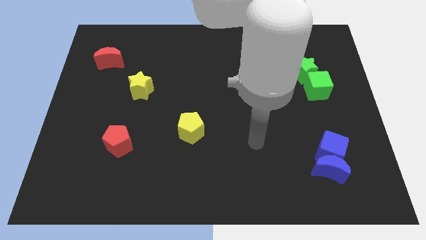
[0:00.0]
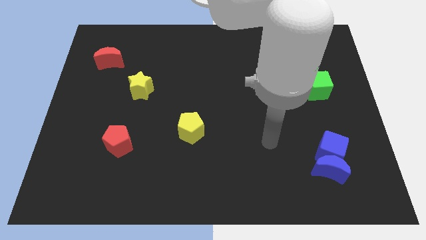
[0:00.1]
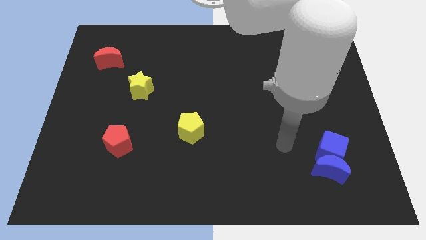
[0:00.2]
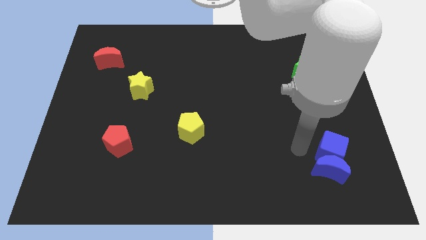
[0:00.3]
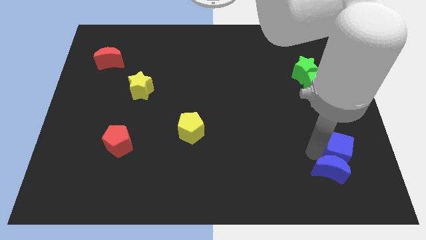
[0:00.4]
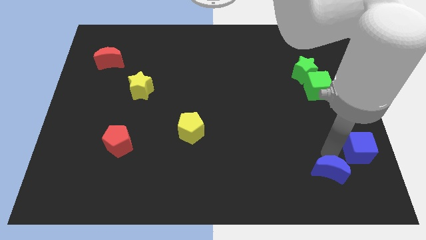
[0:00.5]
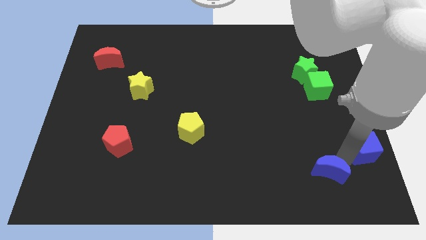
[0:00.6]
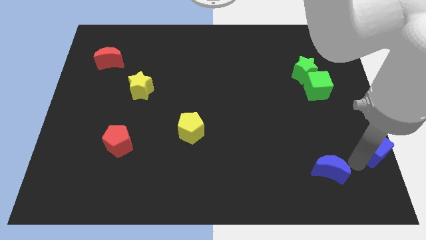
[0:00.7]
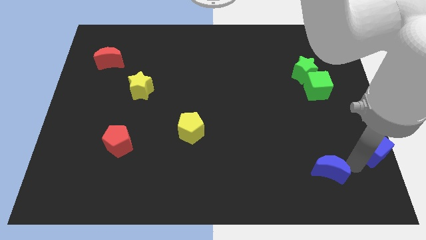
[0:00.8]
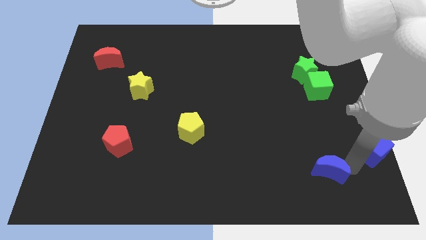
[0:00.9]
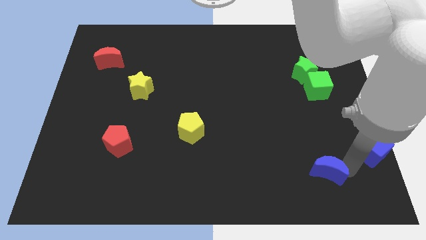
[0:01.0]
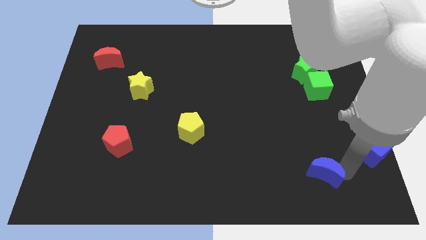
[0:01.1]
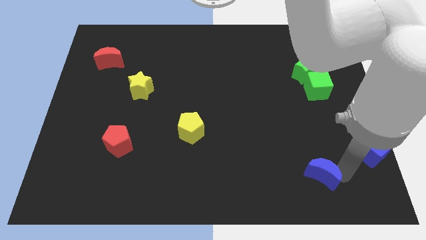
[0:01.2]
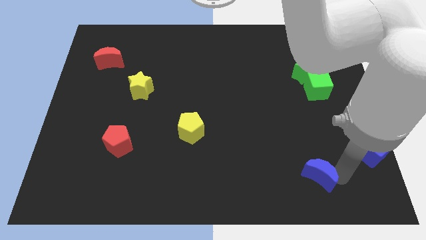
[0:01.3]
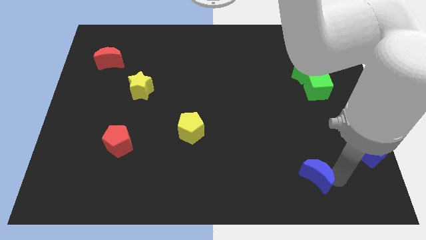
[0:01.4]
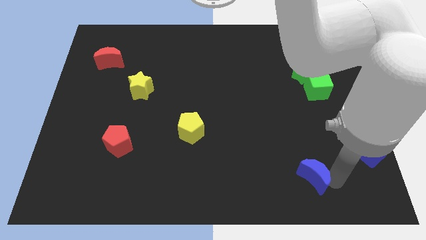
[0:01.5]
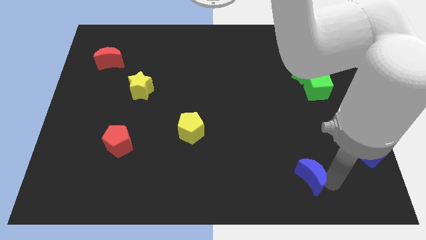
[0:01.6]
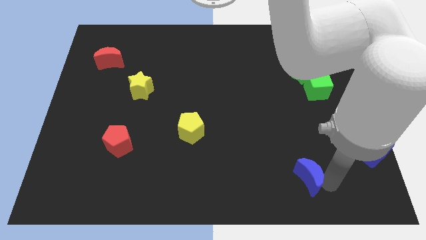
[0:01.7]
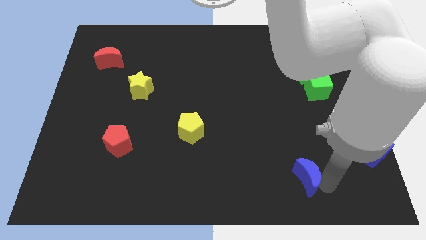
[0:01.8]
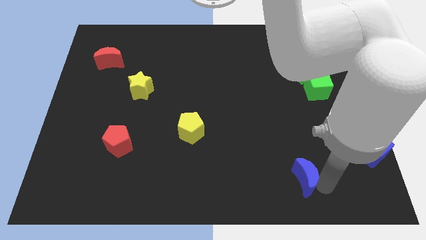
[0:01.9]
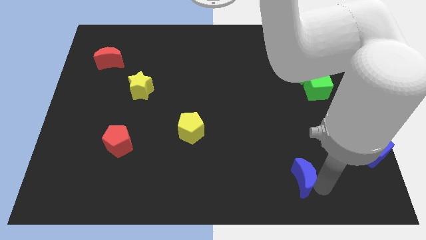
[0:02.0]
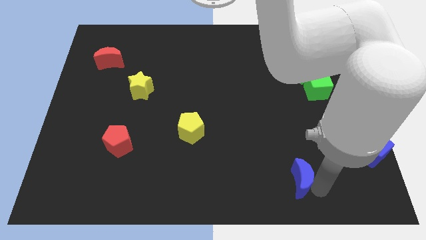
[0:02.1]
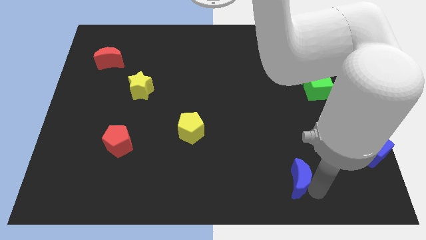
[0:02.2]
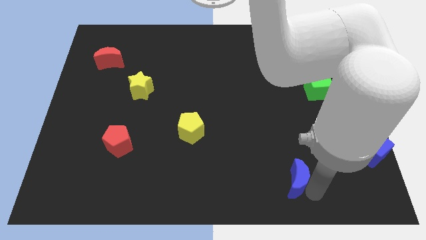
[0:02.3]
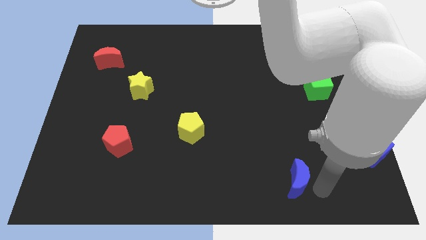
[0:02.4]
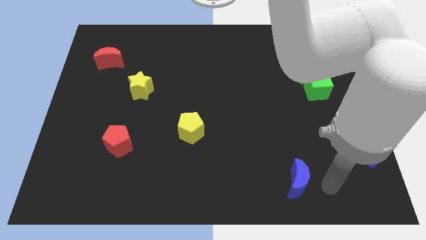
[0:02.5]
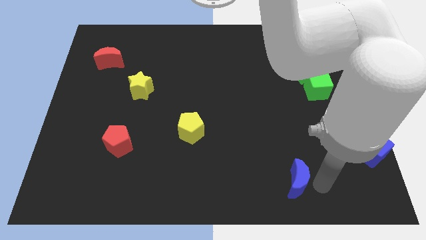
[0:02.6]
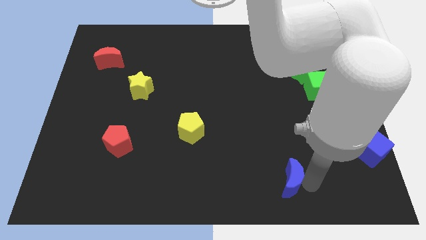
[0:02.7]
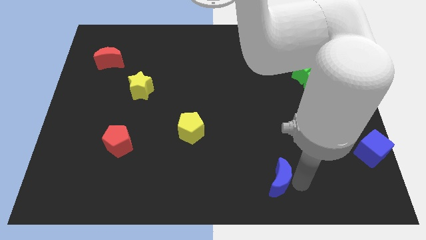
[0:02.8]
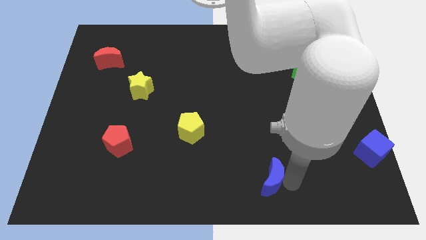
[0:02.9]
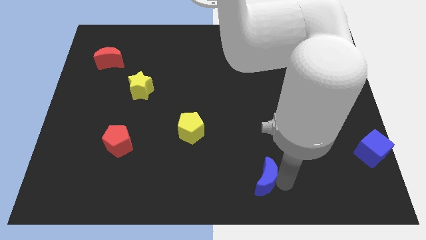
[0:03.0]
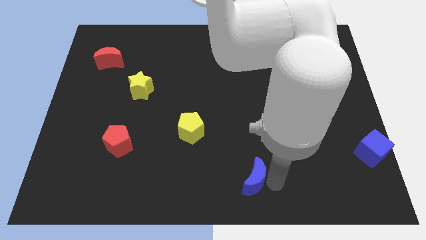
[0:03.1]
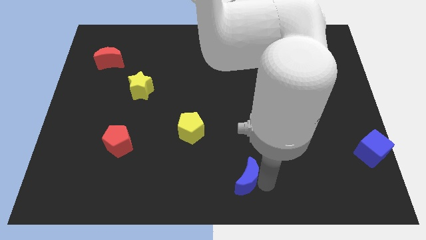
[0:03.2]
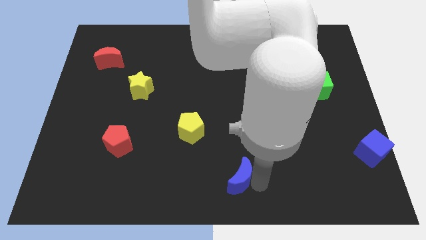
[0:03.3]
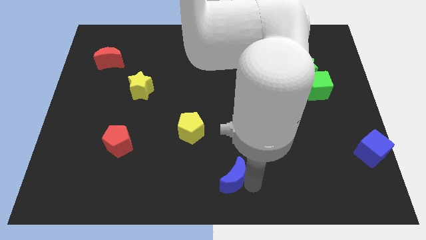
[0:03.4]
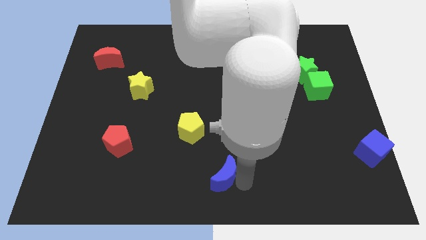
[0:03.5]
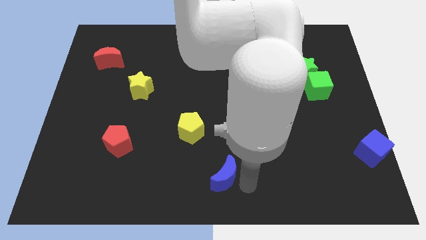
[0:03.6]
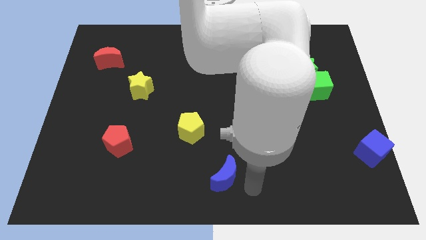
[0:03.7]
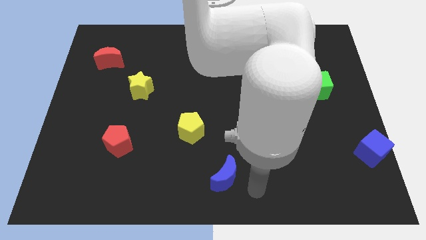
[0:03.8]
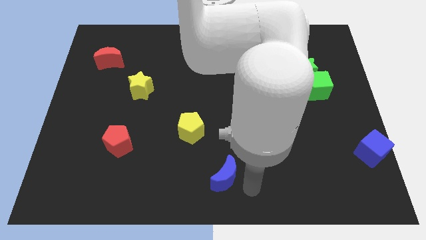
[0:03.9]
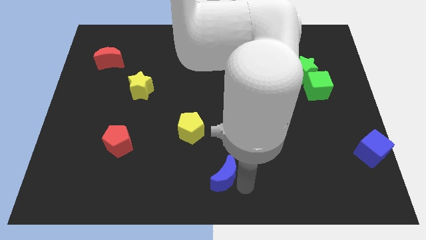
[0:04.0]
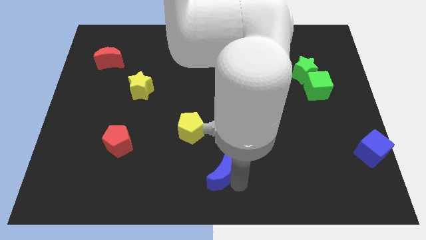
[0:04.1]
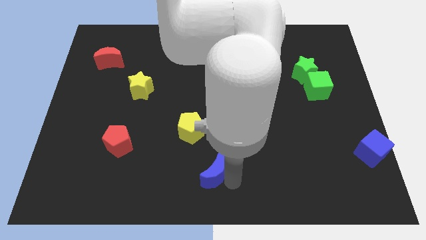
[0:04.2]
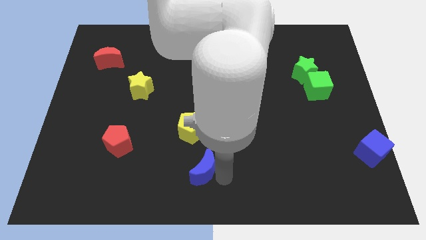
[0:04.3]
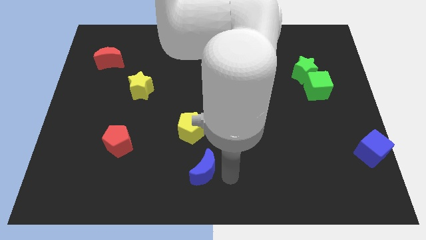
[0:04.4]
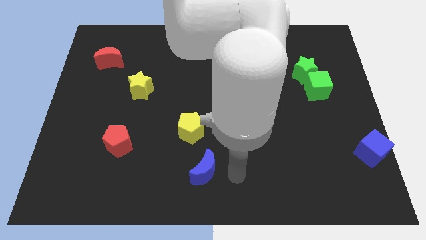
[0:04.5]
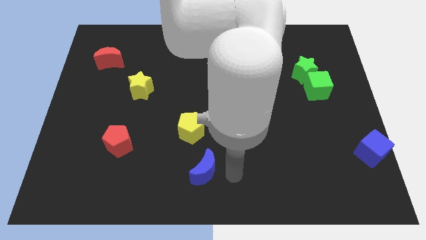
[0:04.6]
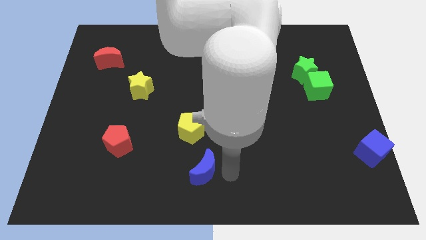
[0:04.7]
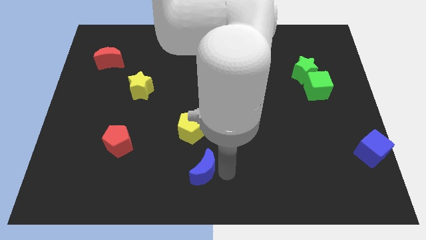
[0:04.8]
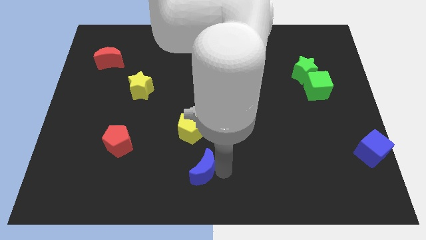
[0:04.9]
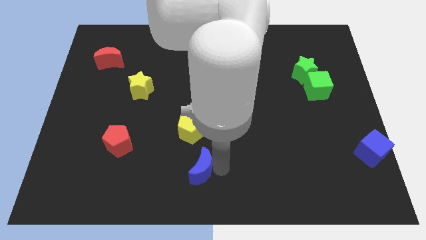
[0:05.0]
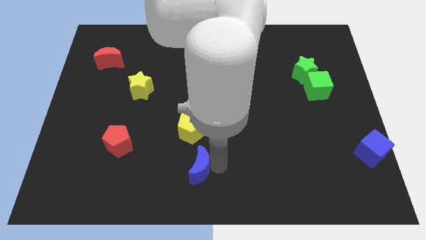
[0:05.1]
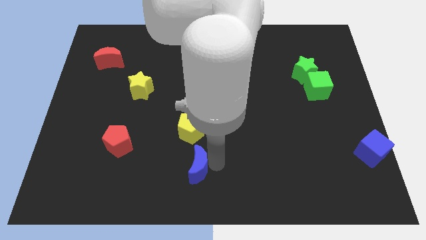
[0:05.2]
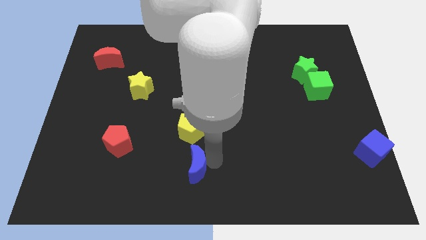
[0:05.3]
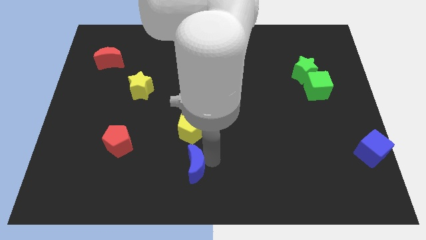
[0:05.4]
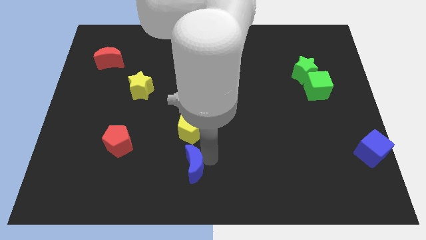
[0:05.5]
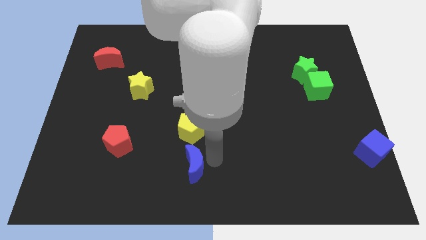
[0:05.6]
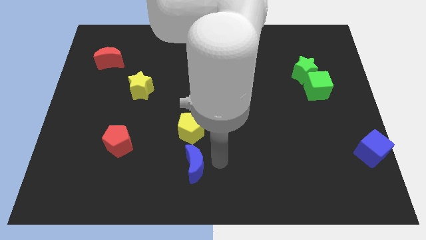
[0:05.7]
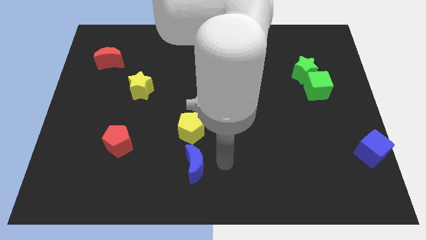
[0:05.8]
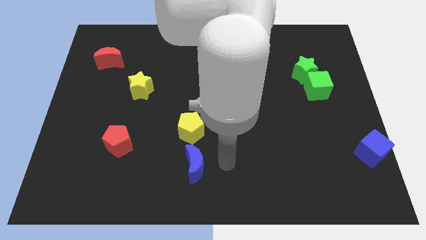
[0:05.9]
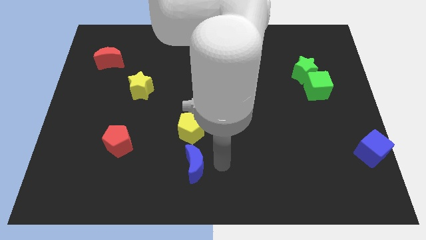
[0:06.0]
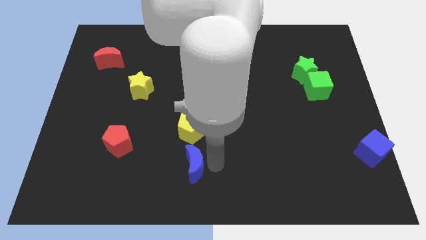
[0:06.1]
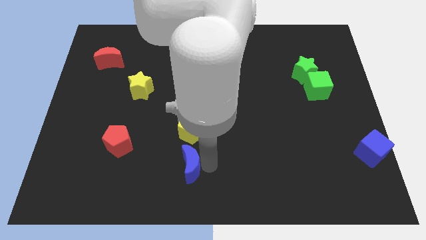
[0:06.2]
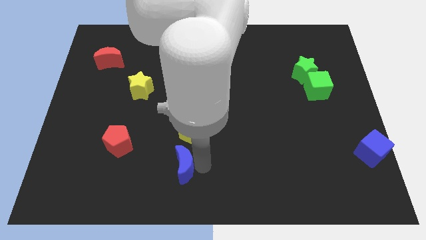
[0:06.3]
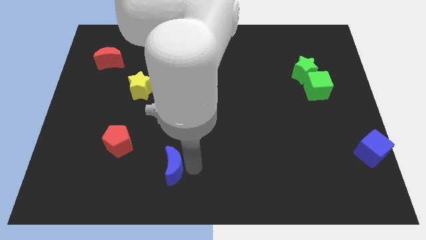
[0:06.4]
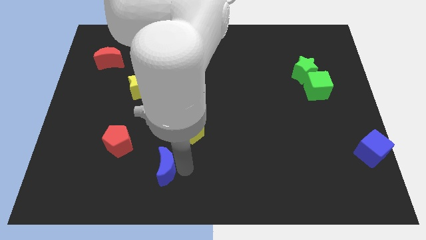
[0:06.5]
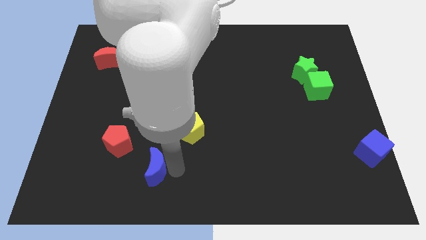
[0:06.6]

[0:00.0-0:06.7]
move the blue moon to the bottom right side of the red pentagon

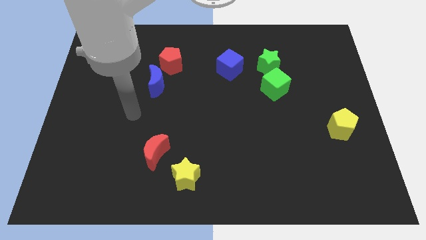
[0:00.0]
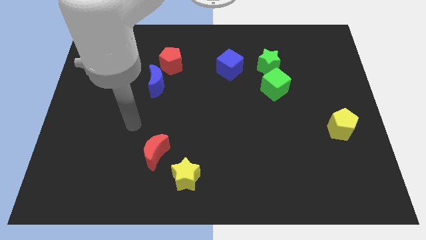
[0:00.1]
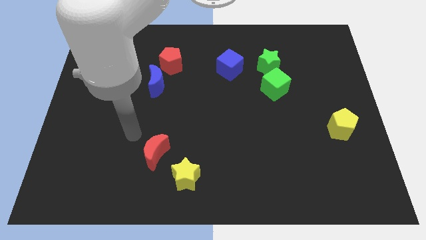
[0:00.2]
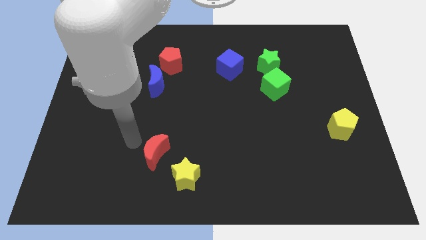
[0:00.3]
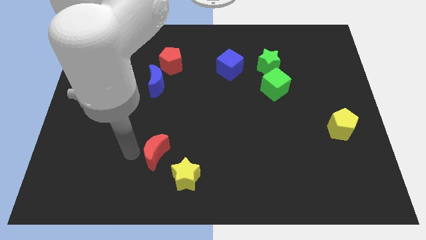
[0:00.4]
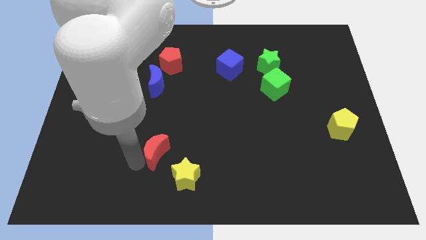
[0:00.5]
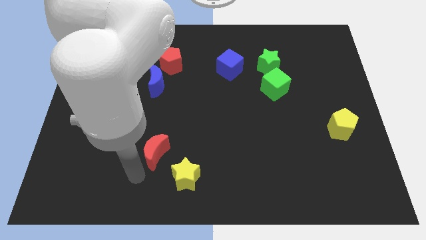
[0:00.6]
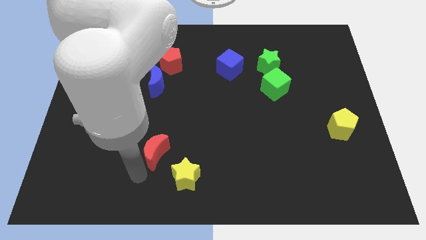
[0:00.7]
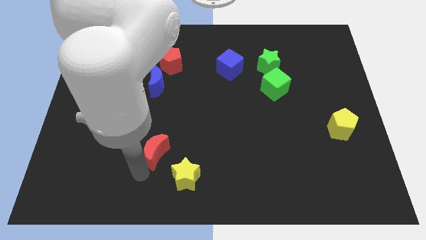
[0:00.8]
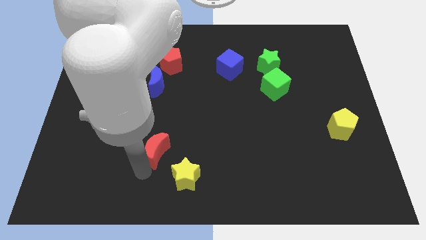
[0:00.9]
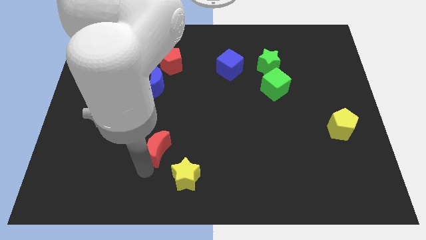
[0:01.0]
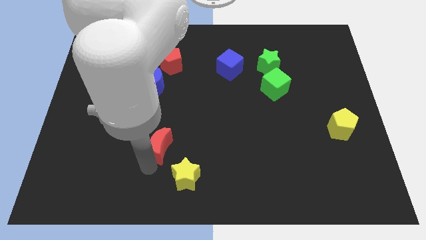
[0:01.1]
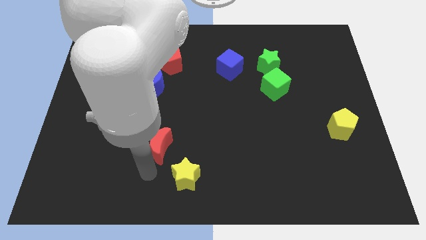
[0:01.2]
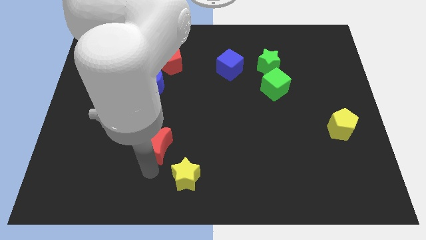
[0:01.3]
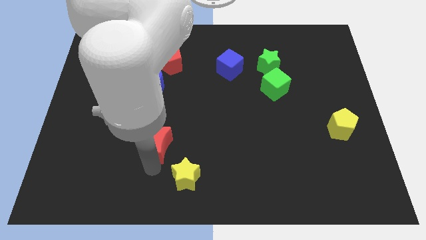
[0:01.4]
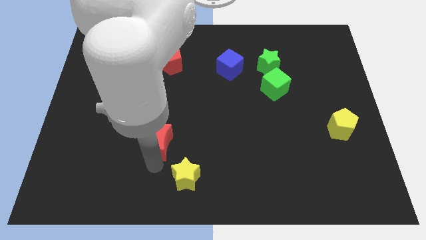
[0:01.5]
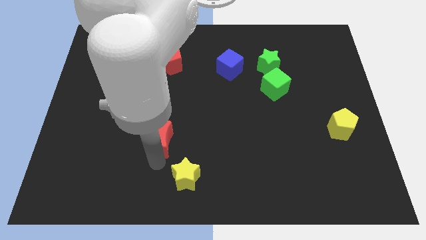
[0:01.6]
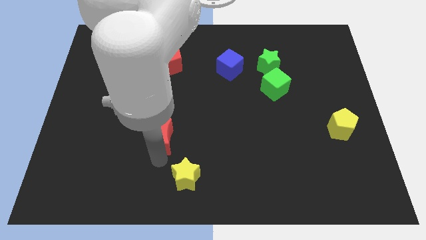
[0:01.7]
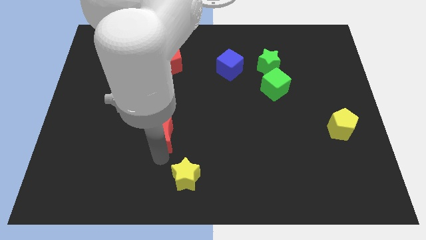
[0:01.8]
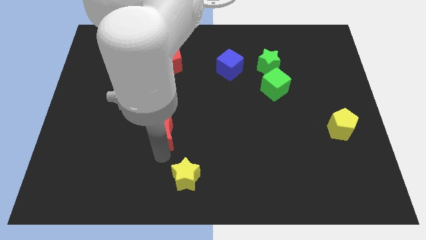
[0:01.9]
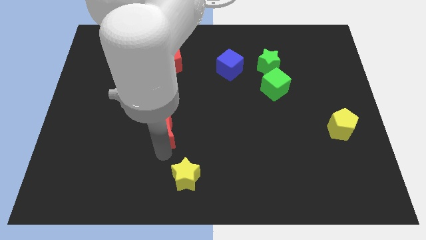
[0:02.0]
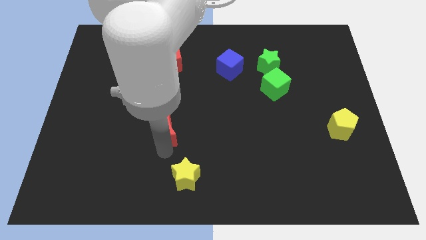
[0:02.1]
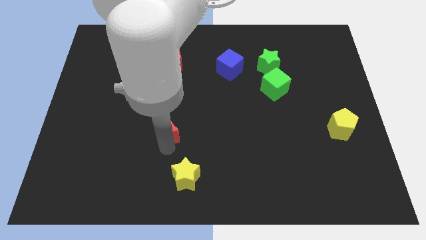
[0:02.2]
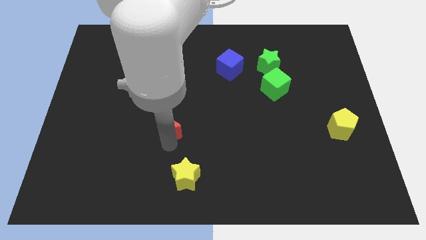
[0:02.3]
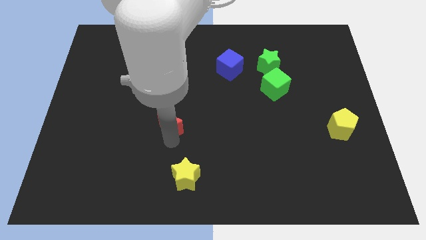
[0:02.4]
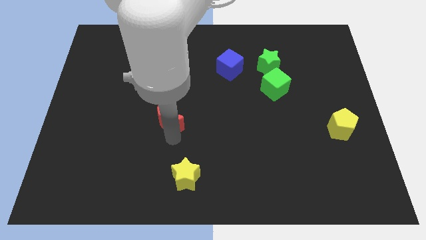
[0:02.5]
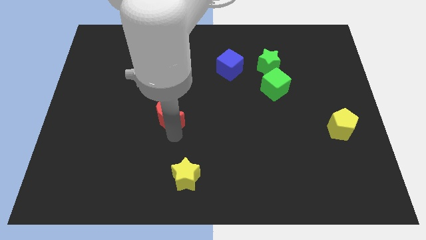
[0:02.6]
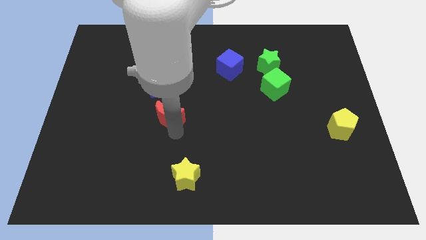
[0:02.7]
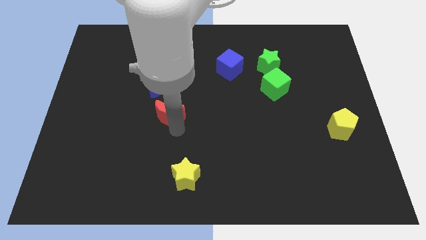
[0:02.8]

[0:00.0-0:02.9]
put the red moon to the bottom right of the blue moon
